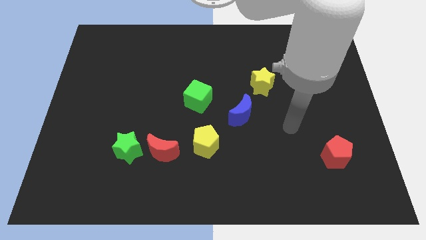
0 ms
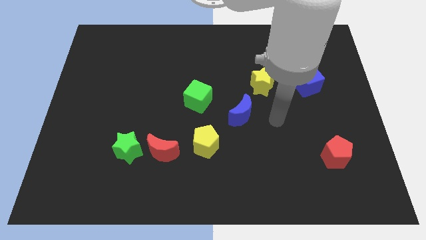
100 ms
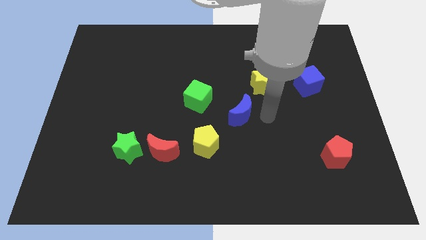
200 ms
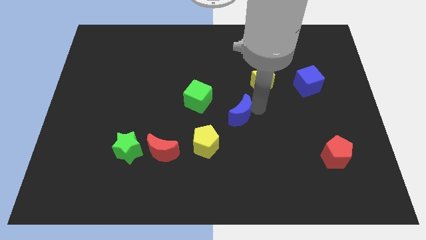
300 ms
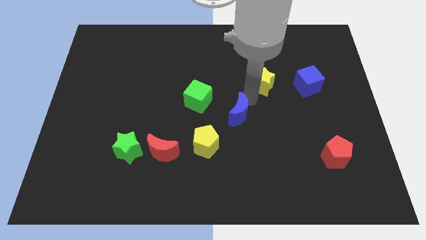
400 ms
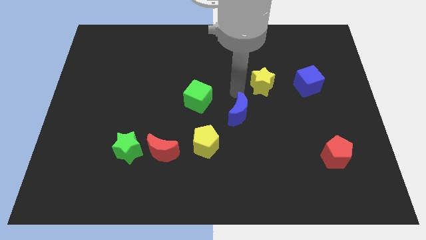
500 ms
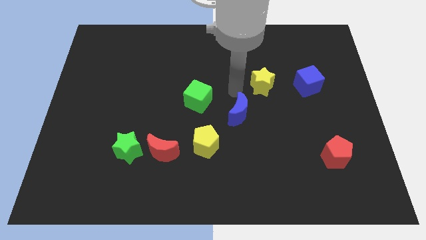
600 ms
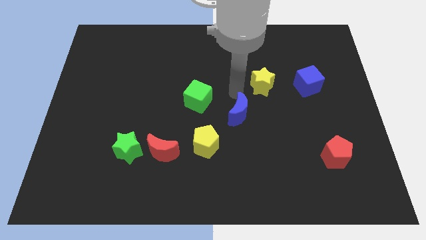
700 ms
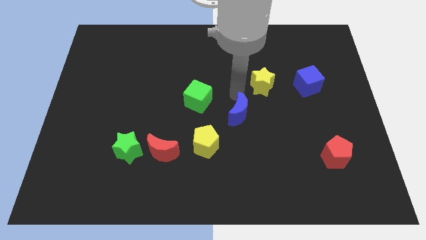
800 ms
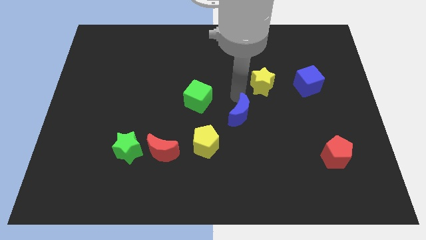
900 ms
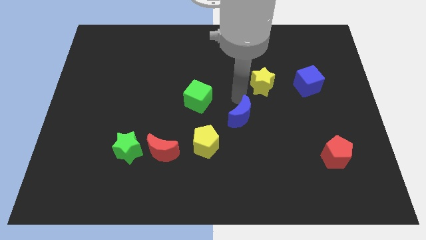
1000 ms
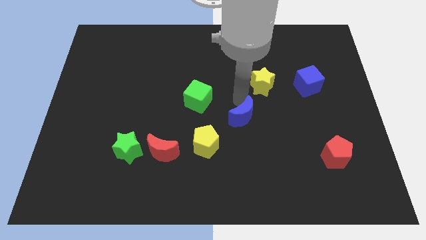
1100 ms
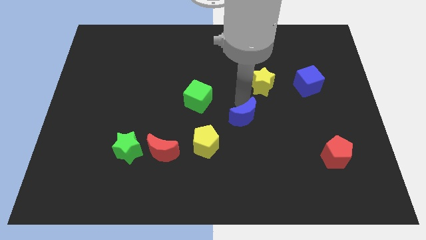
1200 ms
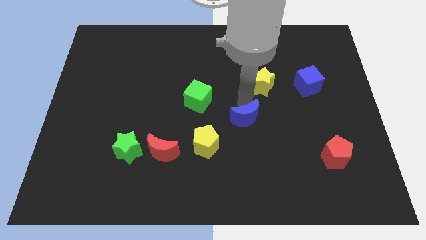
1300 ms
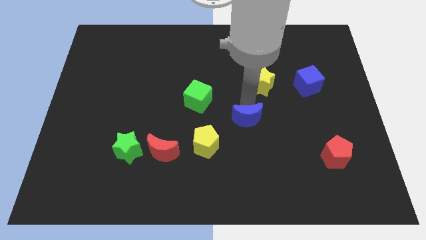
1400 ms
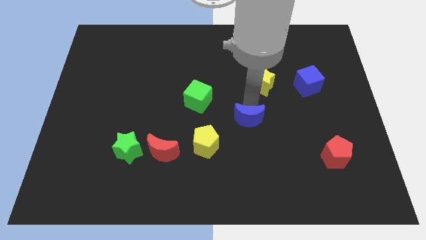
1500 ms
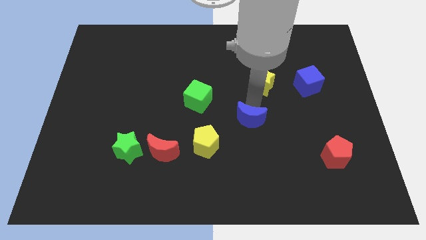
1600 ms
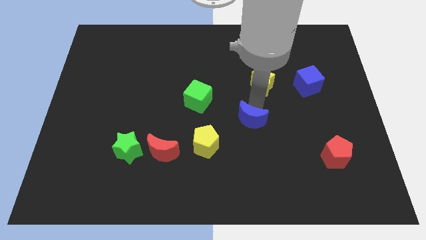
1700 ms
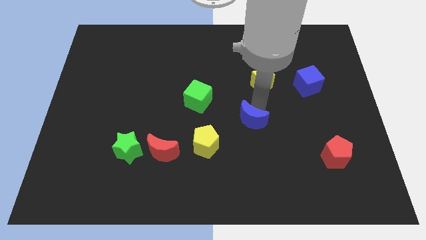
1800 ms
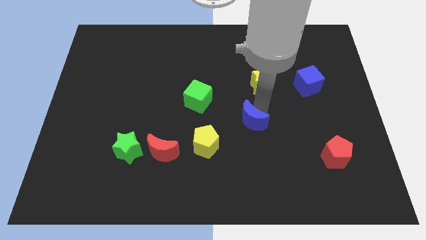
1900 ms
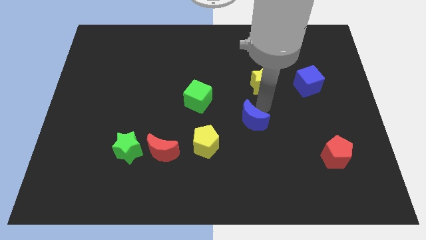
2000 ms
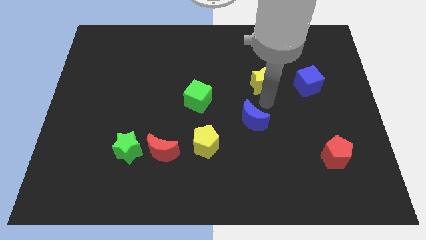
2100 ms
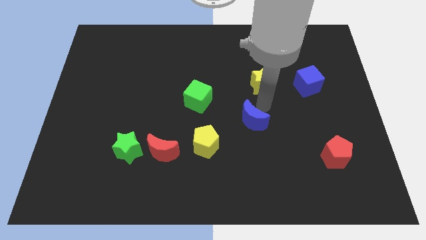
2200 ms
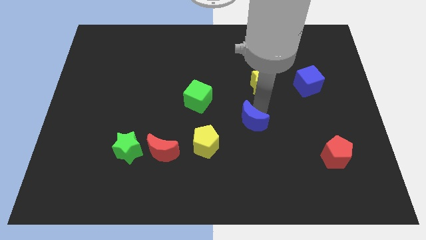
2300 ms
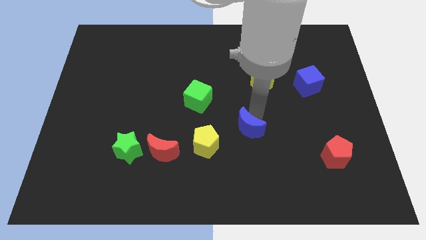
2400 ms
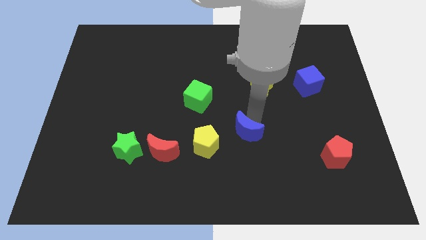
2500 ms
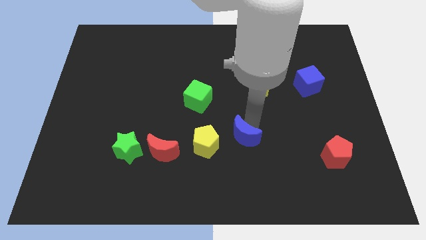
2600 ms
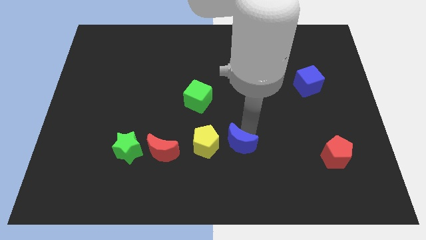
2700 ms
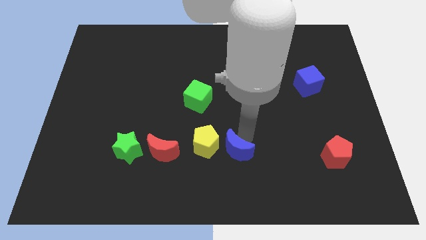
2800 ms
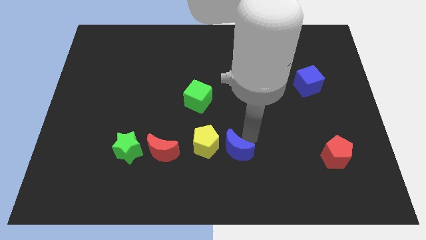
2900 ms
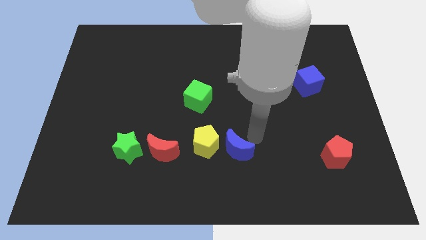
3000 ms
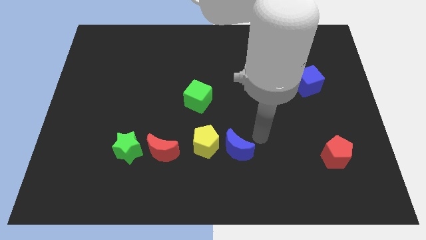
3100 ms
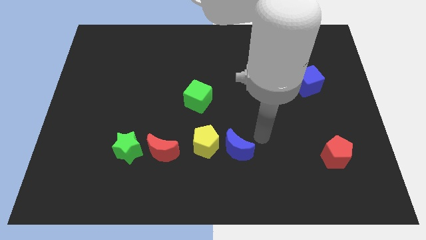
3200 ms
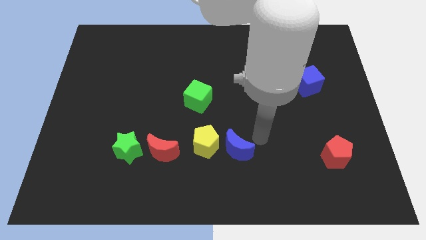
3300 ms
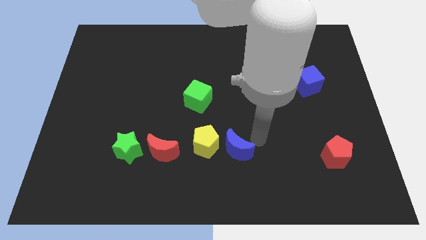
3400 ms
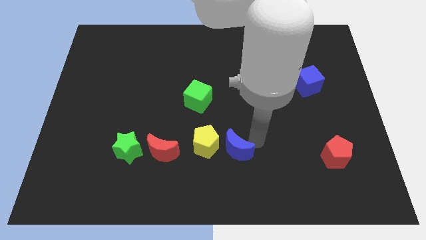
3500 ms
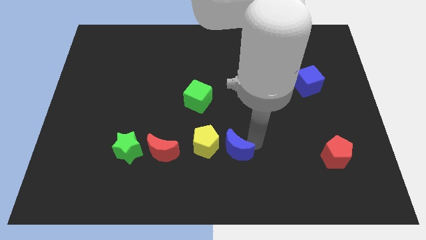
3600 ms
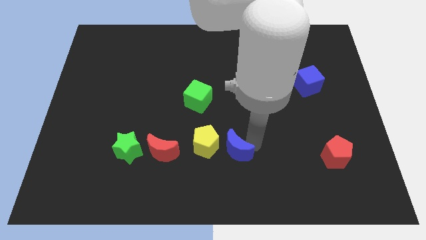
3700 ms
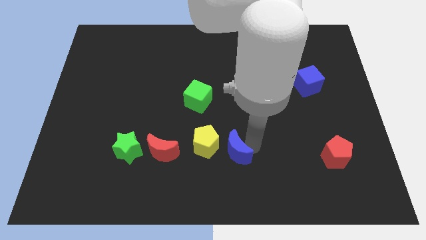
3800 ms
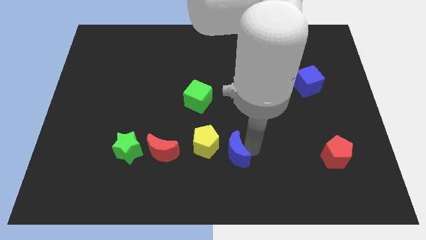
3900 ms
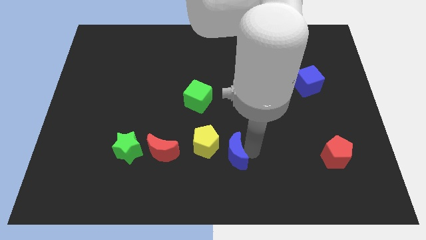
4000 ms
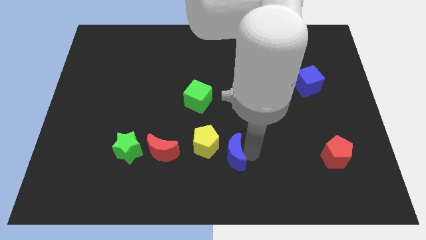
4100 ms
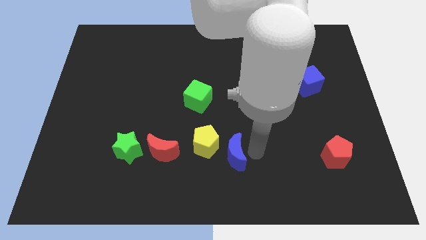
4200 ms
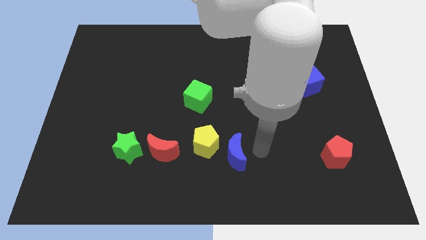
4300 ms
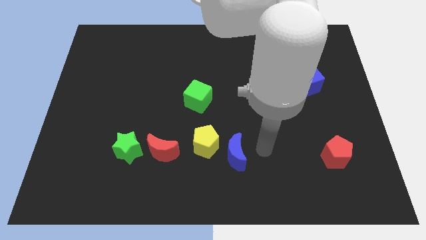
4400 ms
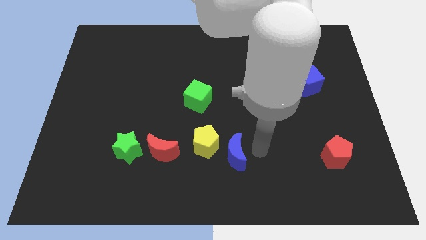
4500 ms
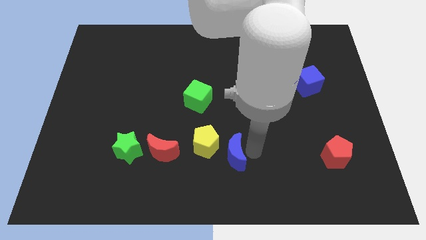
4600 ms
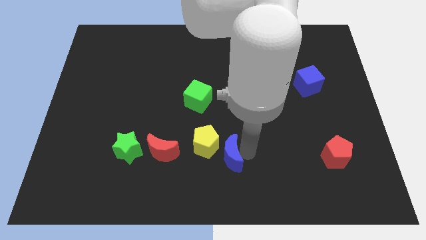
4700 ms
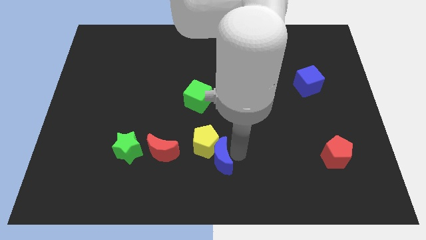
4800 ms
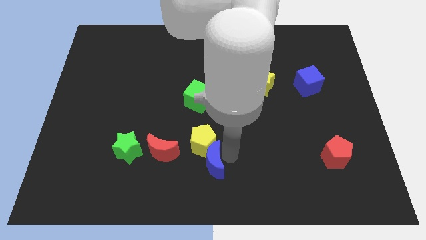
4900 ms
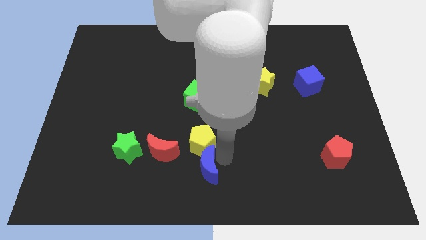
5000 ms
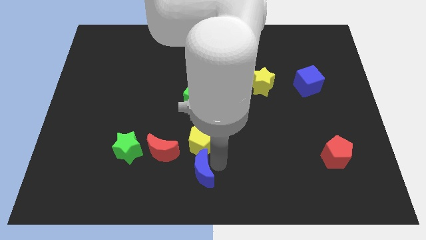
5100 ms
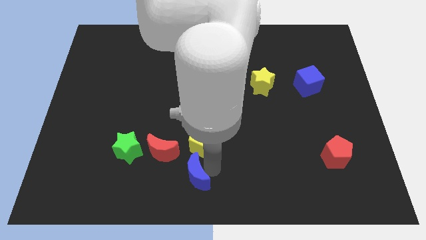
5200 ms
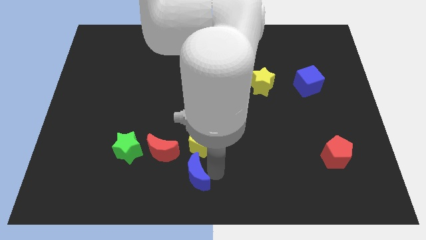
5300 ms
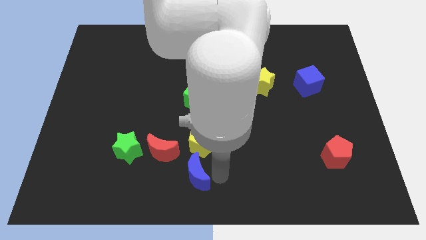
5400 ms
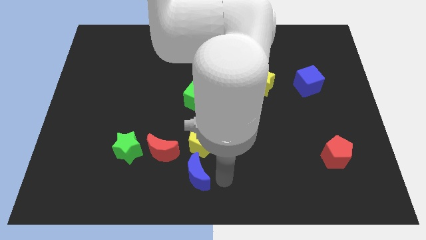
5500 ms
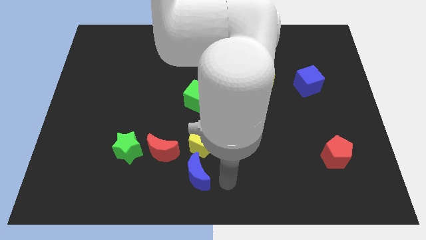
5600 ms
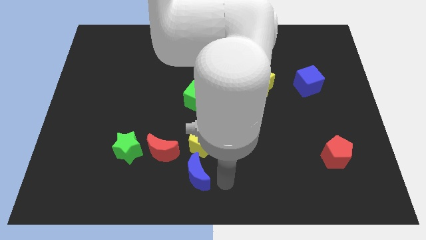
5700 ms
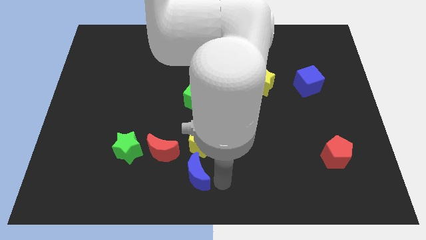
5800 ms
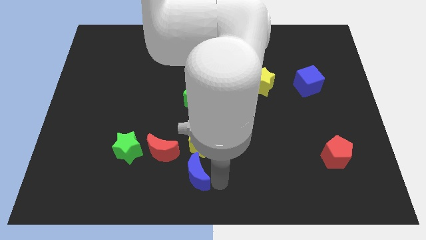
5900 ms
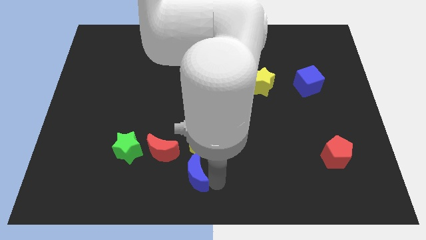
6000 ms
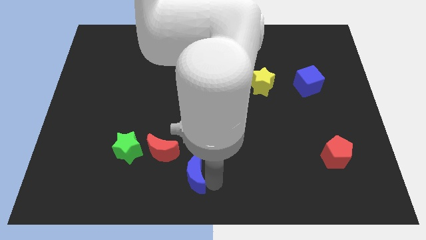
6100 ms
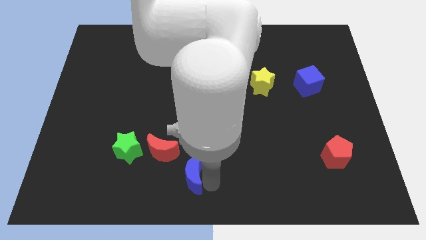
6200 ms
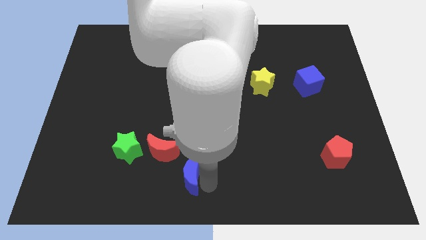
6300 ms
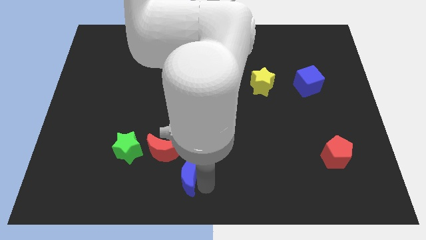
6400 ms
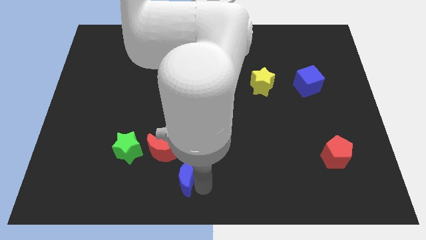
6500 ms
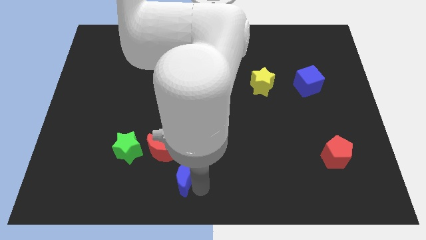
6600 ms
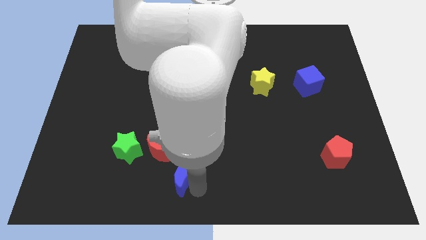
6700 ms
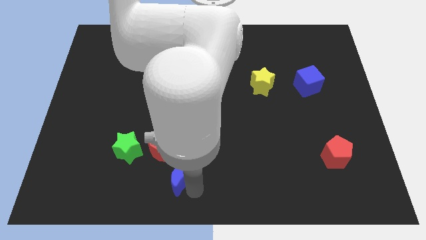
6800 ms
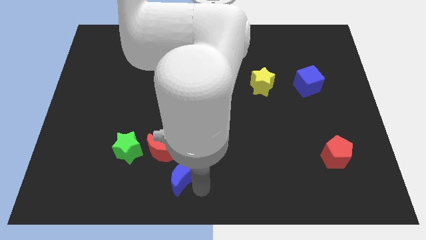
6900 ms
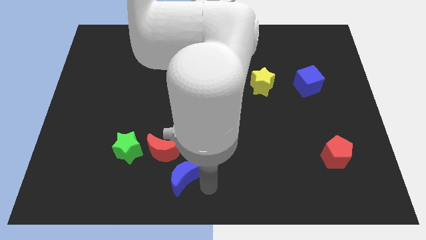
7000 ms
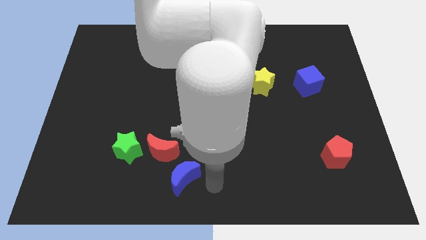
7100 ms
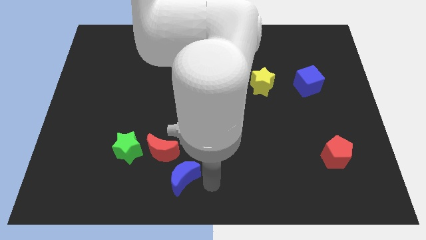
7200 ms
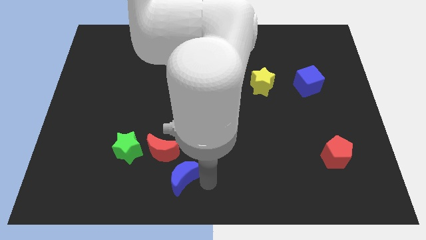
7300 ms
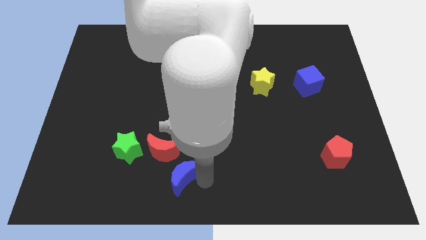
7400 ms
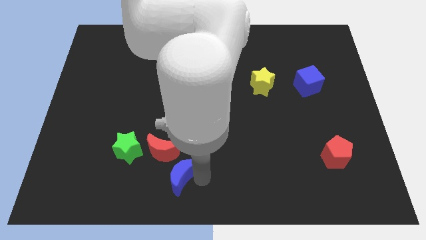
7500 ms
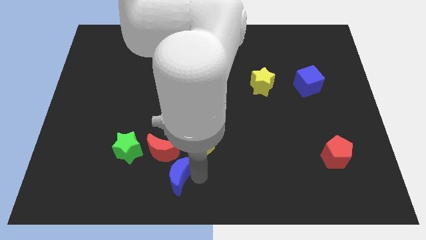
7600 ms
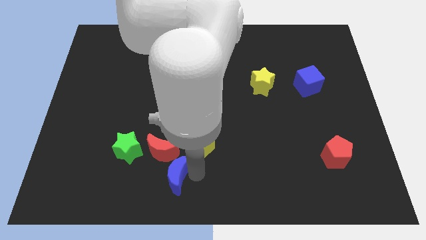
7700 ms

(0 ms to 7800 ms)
push the blue moon to the bottom right of the green star

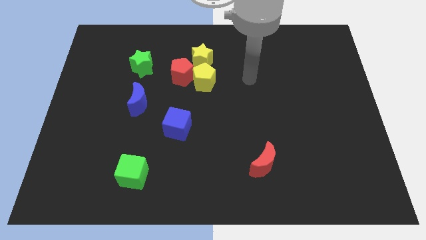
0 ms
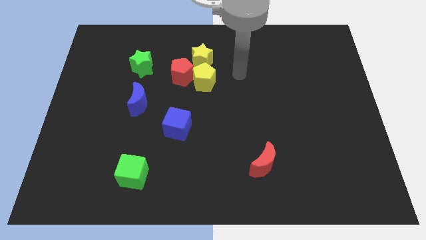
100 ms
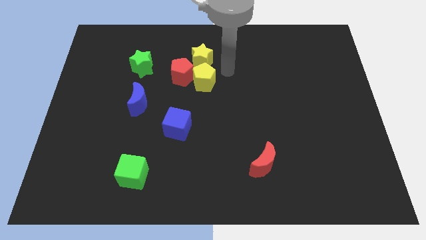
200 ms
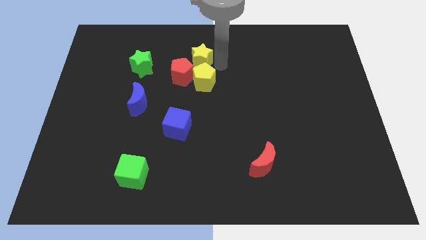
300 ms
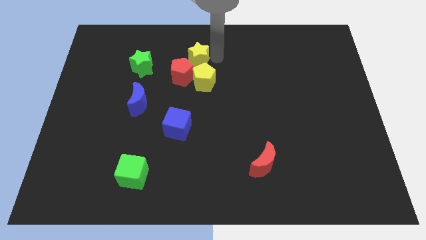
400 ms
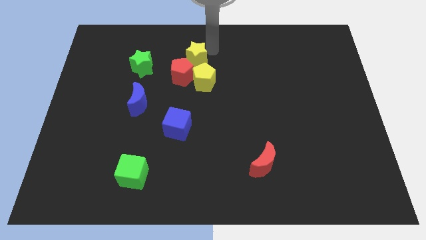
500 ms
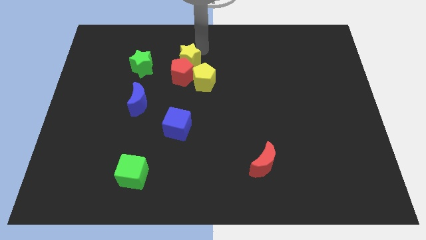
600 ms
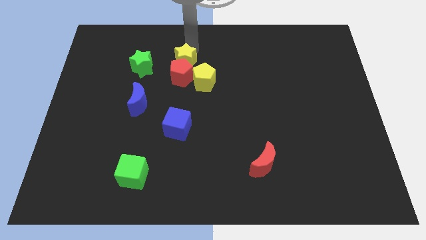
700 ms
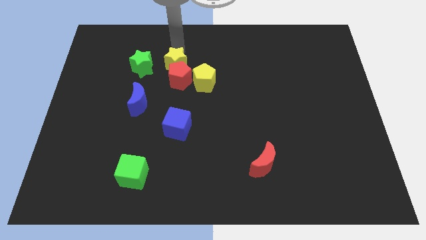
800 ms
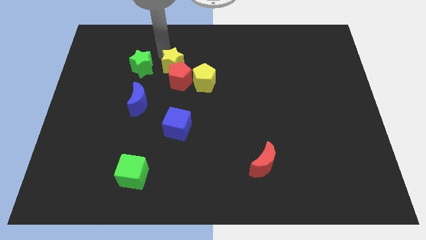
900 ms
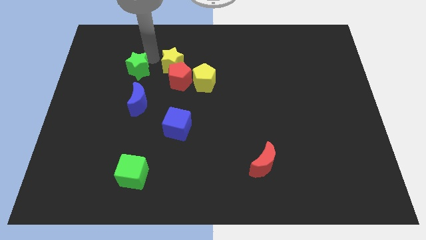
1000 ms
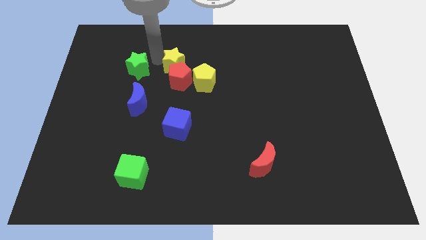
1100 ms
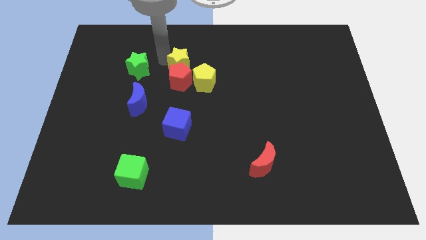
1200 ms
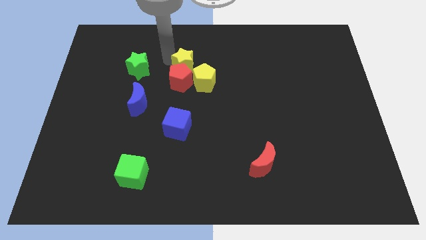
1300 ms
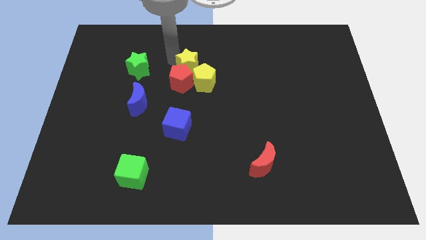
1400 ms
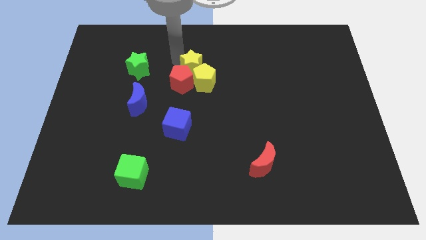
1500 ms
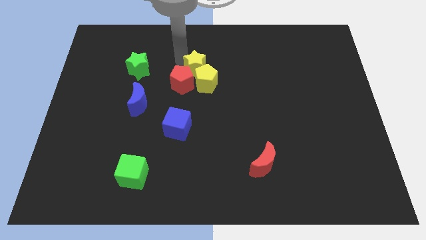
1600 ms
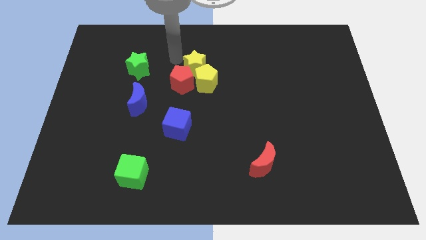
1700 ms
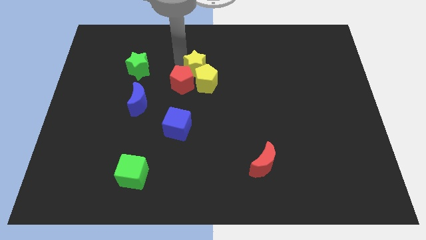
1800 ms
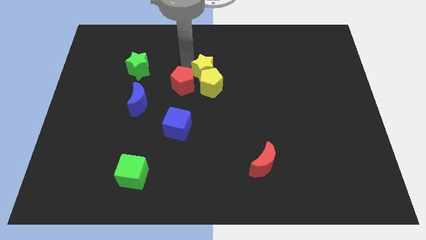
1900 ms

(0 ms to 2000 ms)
slide the yellow star to the right side of the red pentagon
